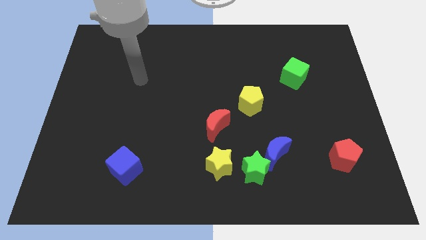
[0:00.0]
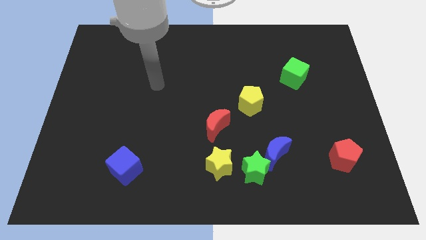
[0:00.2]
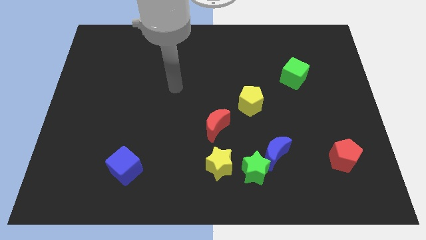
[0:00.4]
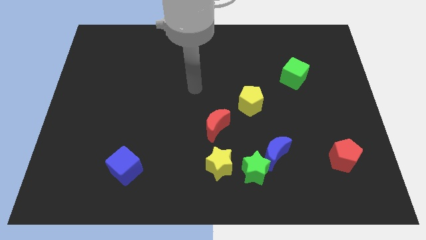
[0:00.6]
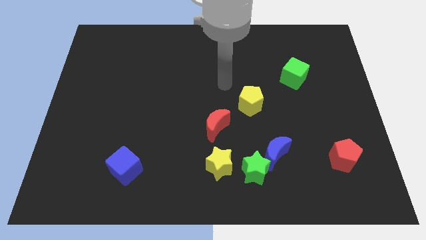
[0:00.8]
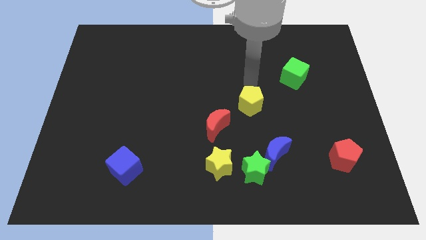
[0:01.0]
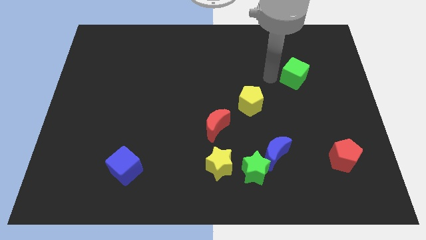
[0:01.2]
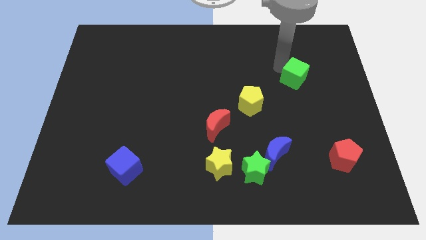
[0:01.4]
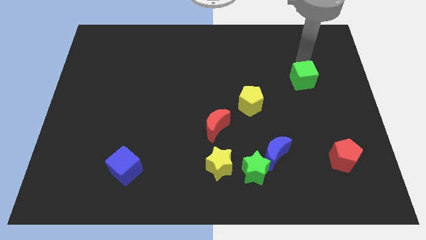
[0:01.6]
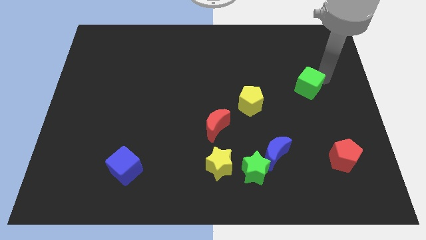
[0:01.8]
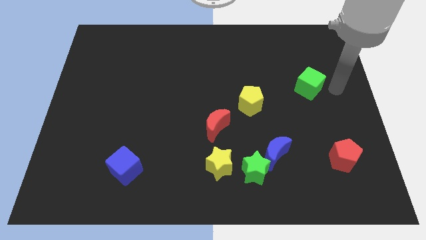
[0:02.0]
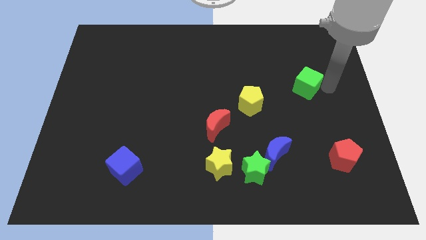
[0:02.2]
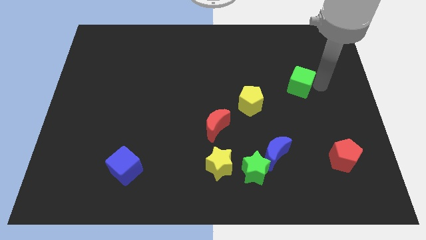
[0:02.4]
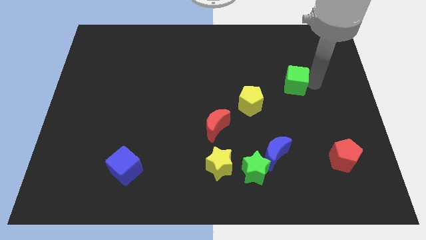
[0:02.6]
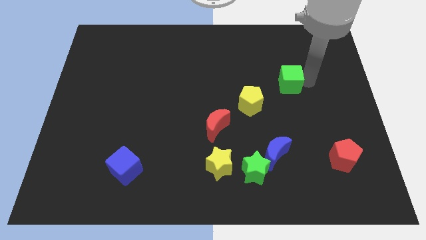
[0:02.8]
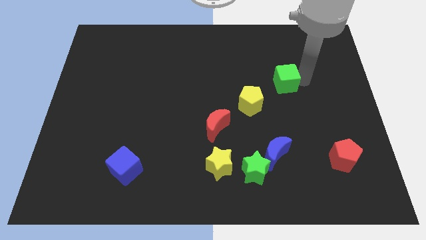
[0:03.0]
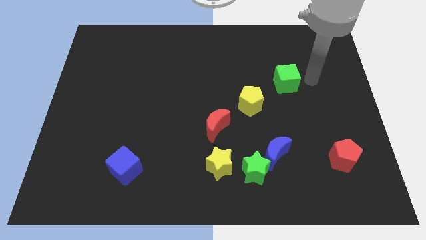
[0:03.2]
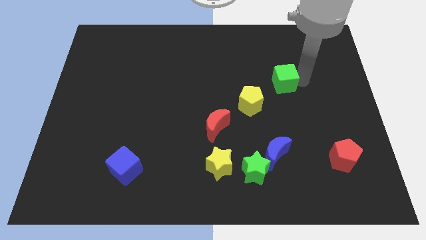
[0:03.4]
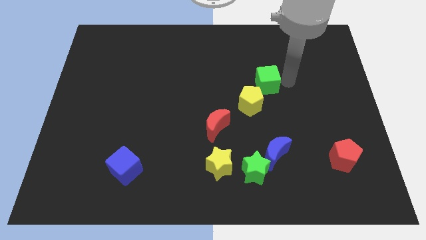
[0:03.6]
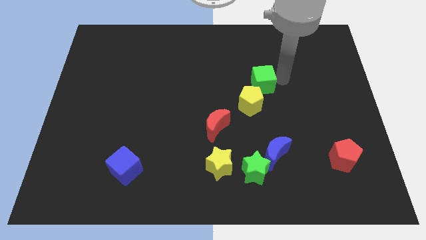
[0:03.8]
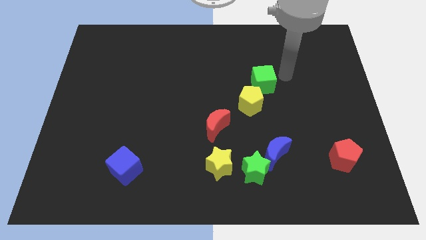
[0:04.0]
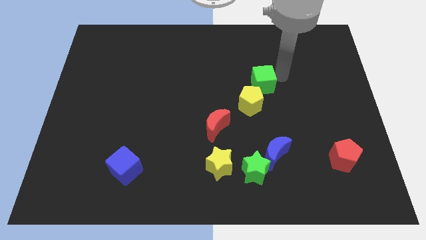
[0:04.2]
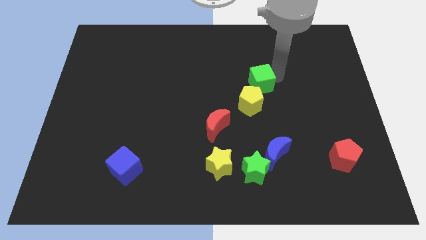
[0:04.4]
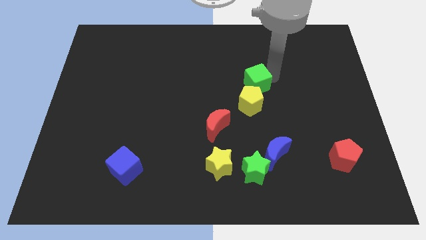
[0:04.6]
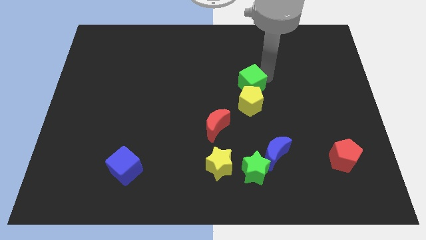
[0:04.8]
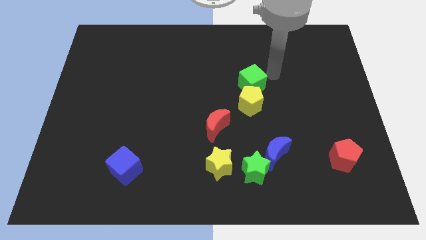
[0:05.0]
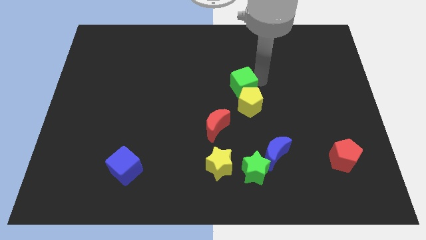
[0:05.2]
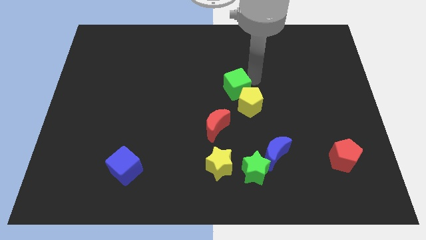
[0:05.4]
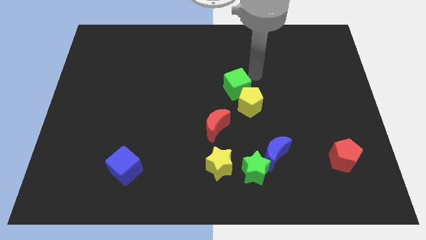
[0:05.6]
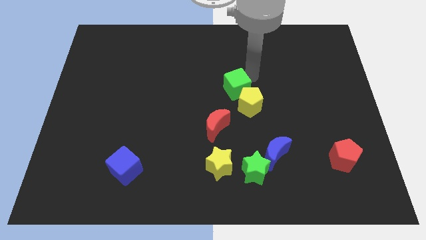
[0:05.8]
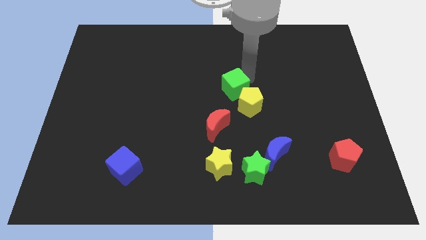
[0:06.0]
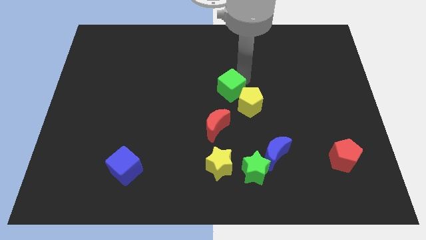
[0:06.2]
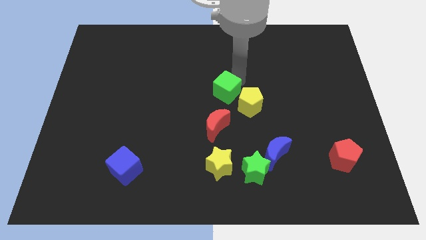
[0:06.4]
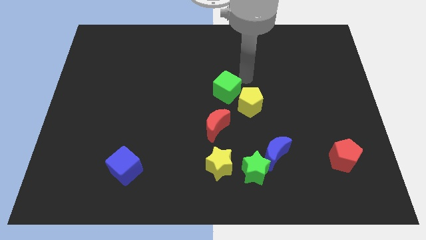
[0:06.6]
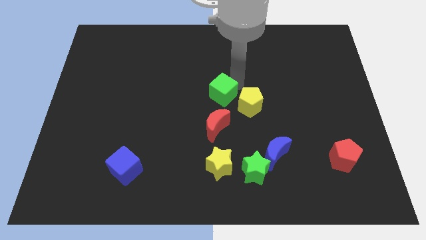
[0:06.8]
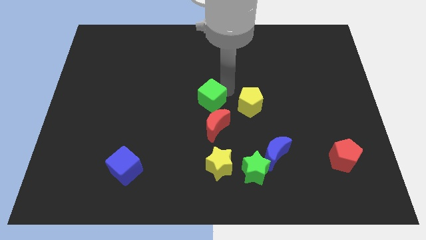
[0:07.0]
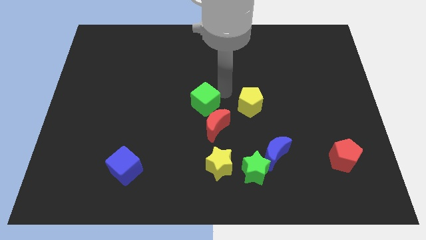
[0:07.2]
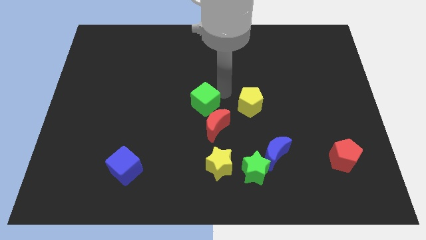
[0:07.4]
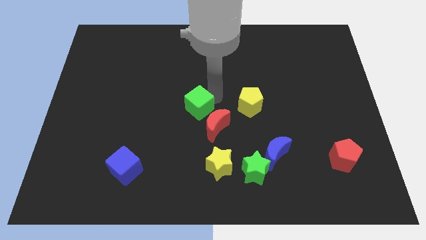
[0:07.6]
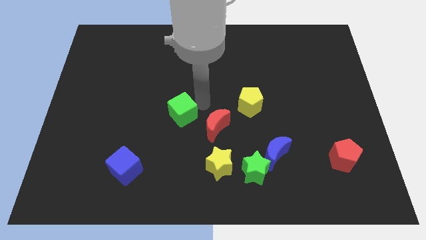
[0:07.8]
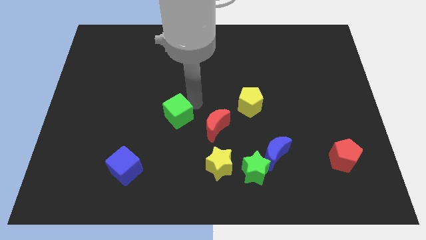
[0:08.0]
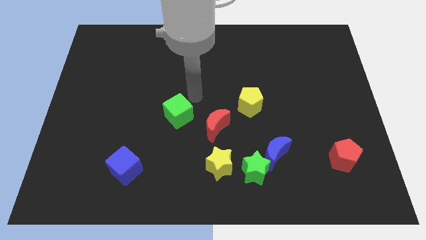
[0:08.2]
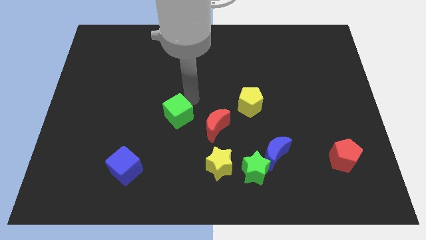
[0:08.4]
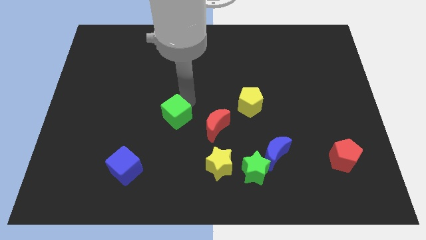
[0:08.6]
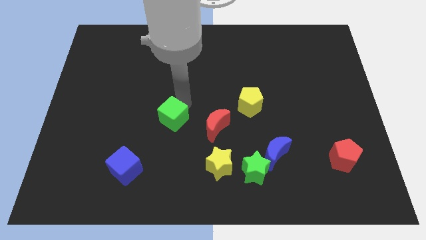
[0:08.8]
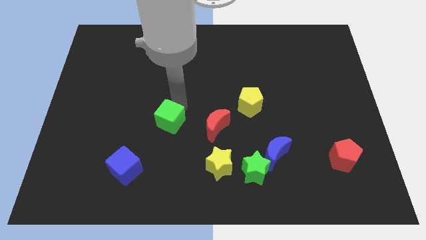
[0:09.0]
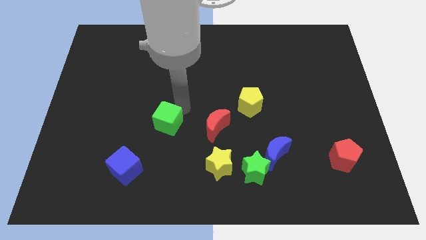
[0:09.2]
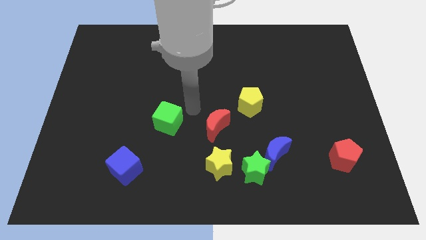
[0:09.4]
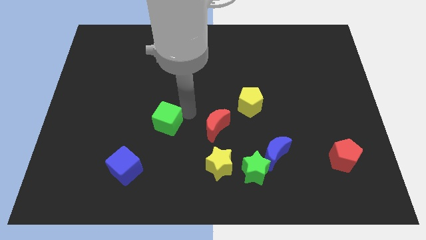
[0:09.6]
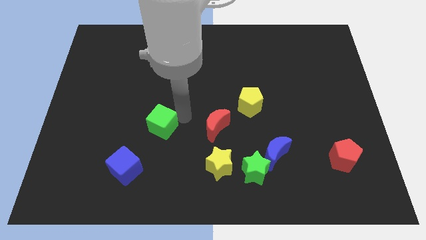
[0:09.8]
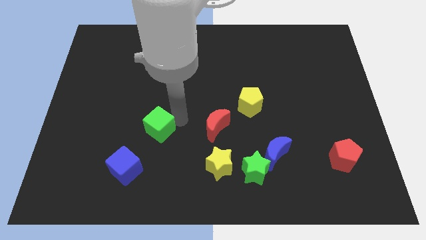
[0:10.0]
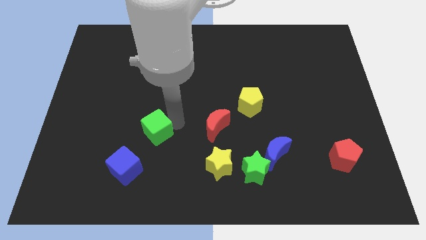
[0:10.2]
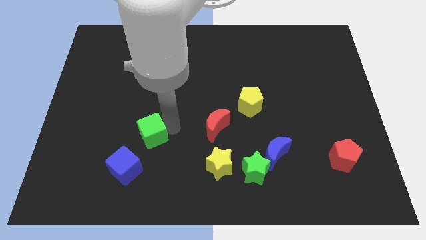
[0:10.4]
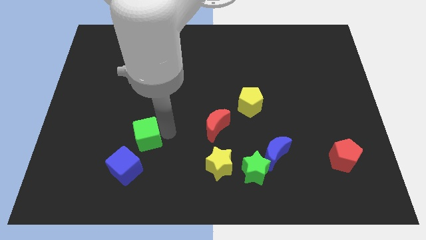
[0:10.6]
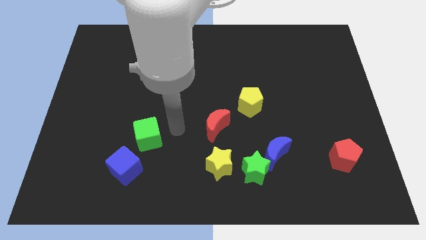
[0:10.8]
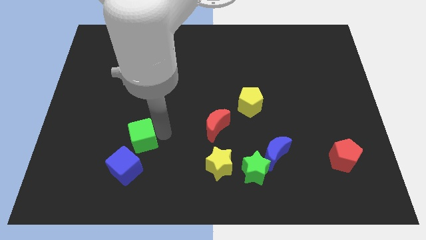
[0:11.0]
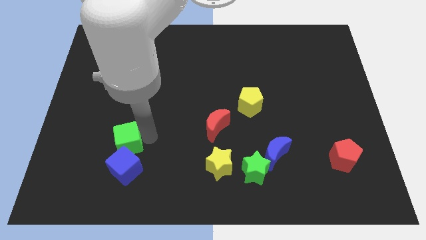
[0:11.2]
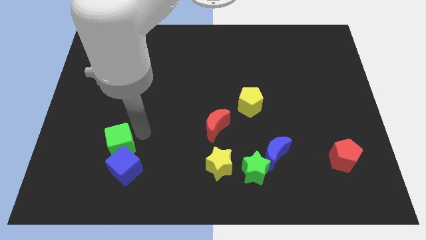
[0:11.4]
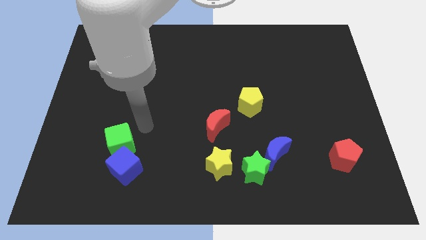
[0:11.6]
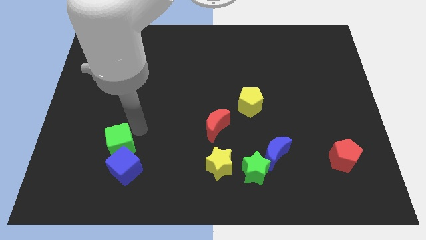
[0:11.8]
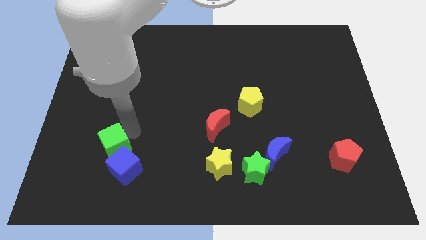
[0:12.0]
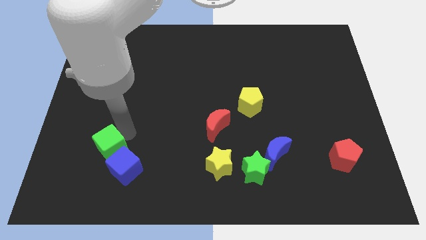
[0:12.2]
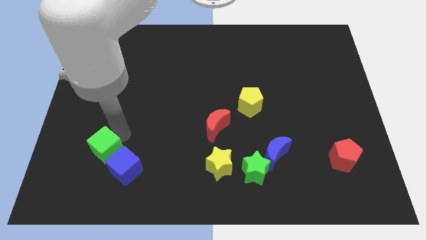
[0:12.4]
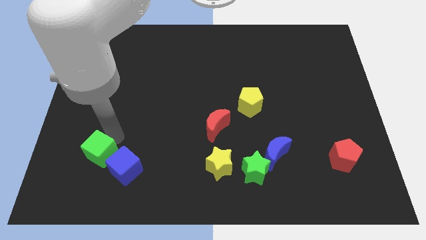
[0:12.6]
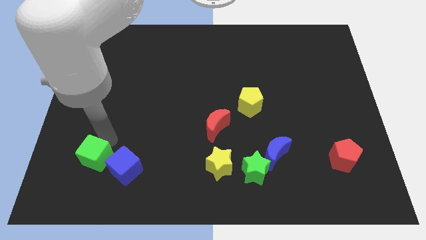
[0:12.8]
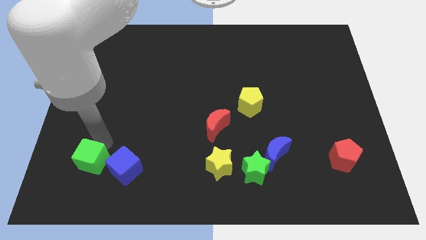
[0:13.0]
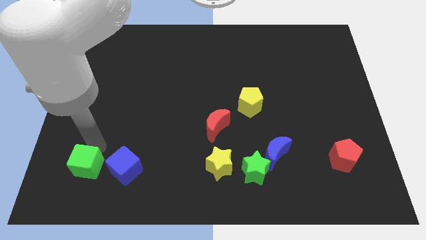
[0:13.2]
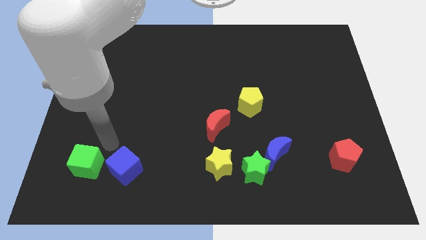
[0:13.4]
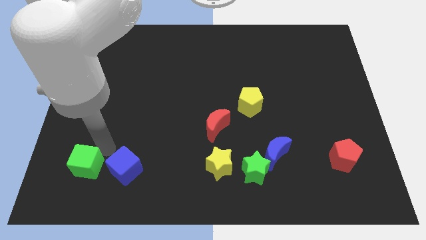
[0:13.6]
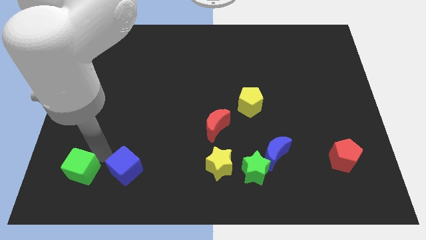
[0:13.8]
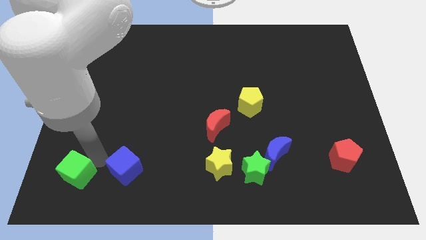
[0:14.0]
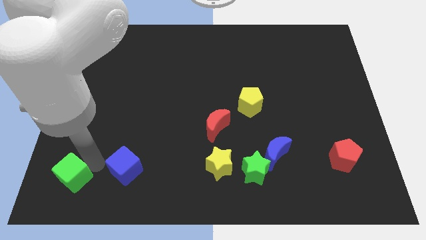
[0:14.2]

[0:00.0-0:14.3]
move the green cube to the bottom left of the board
